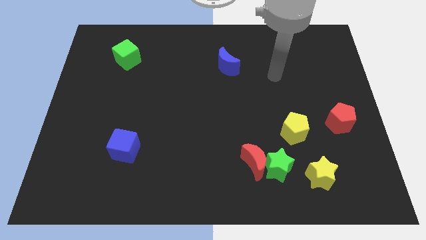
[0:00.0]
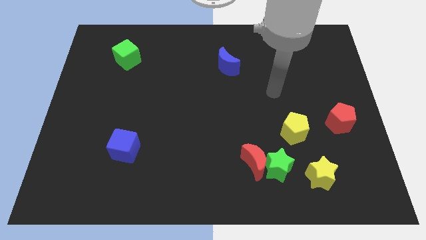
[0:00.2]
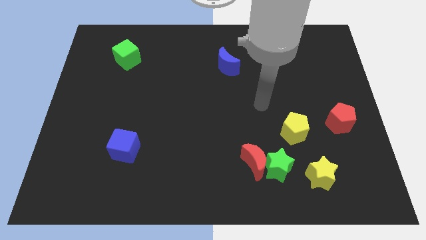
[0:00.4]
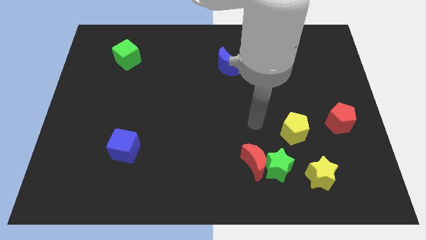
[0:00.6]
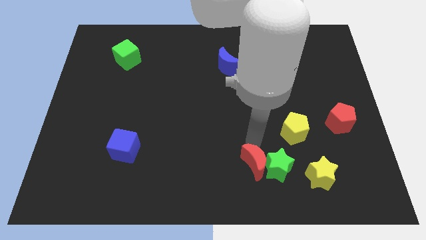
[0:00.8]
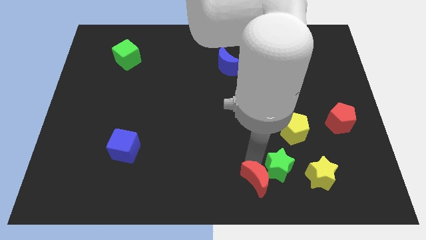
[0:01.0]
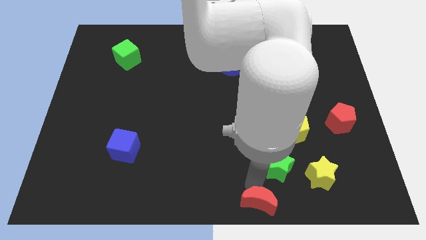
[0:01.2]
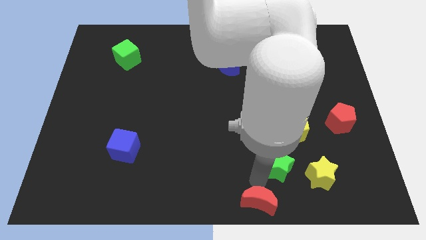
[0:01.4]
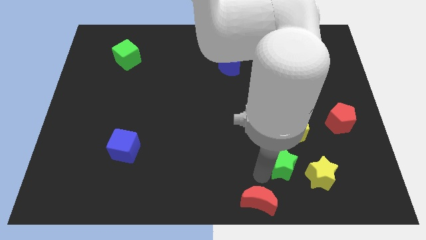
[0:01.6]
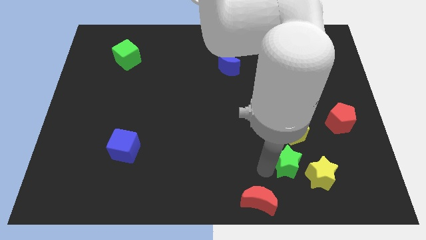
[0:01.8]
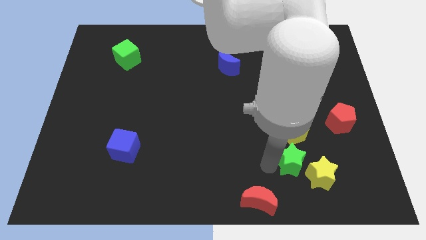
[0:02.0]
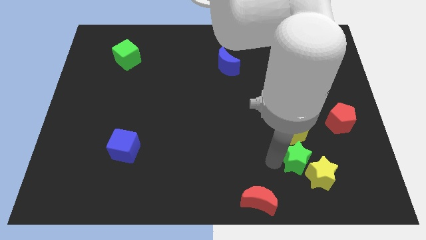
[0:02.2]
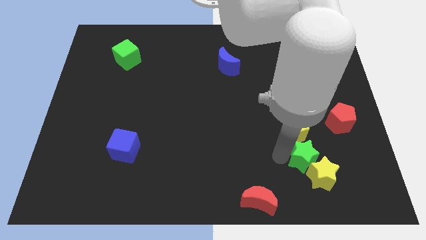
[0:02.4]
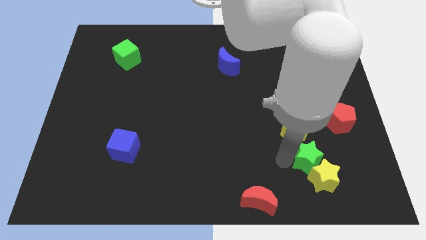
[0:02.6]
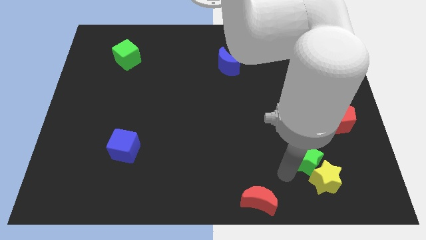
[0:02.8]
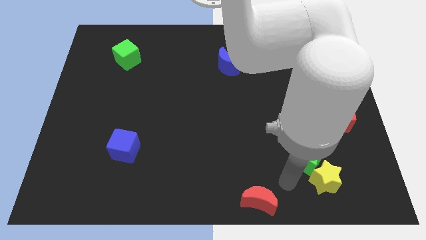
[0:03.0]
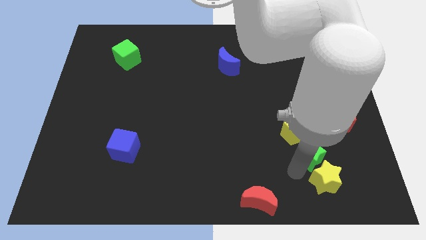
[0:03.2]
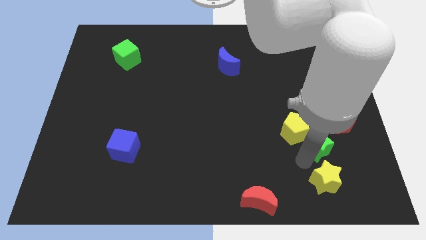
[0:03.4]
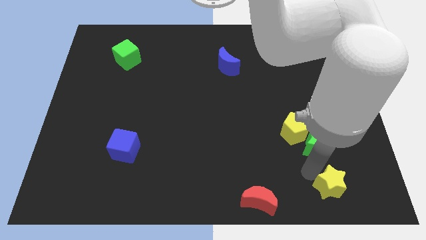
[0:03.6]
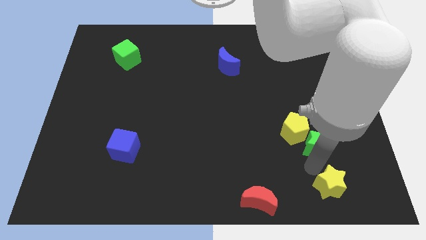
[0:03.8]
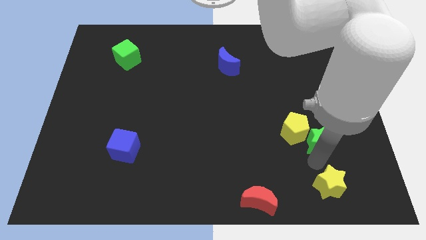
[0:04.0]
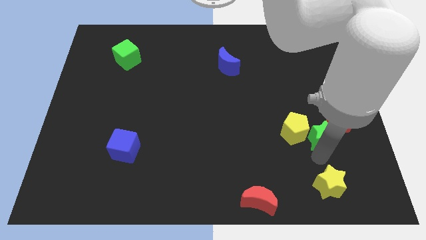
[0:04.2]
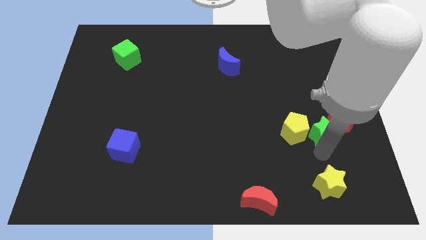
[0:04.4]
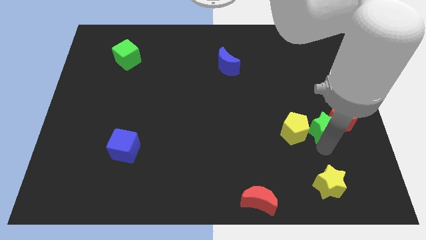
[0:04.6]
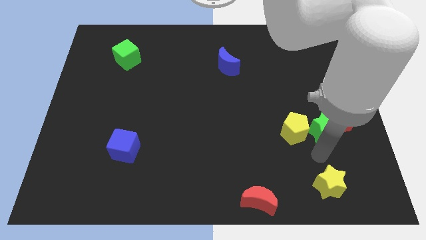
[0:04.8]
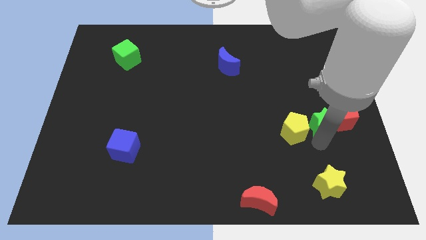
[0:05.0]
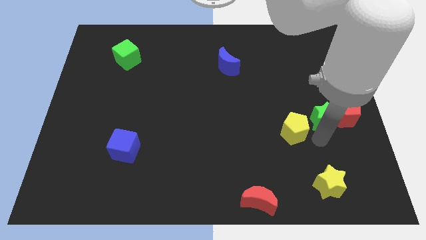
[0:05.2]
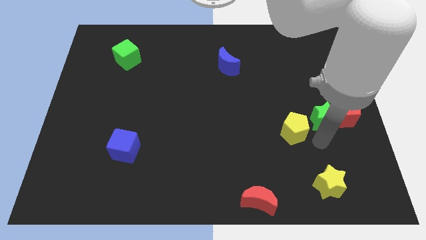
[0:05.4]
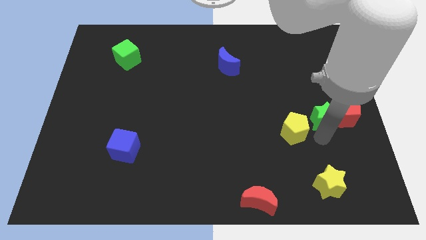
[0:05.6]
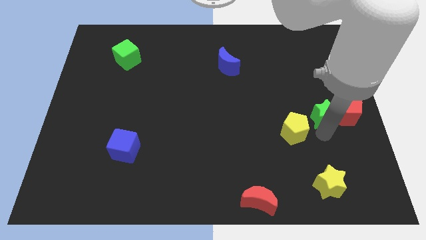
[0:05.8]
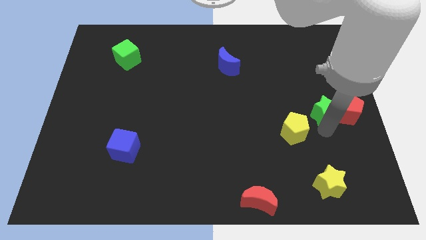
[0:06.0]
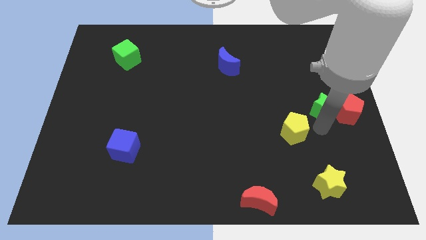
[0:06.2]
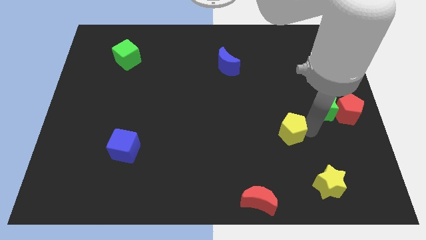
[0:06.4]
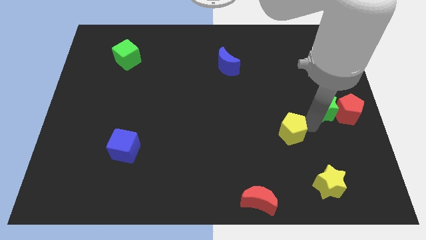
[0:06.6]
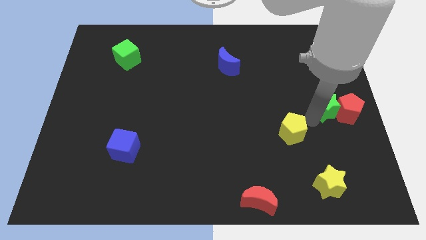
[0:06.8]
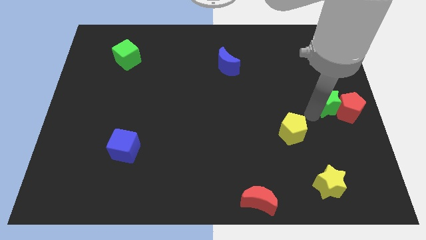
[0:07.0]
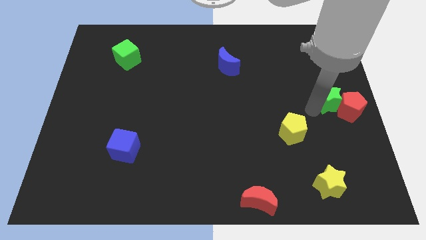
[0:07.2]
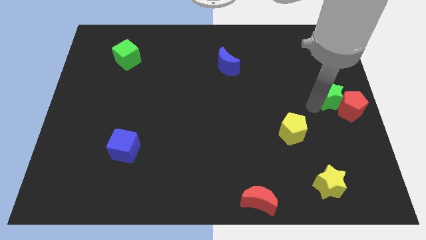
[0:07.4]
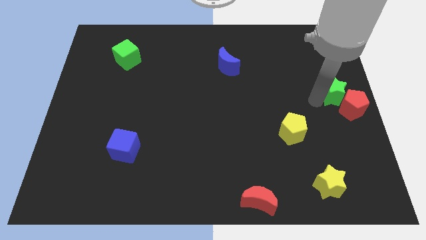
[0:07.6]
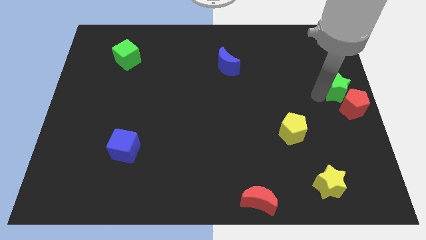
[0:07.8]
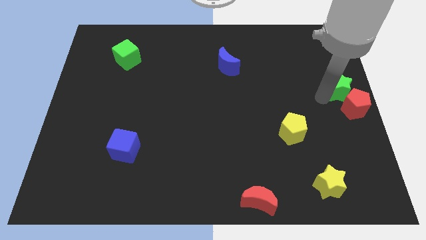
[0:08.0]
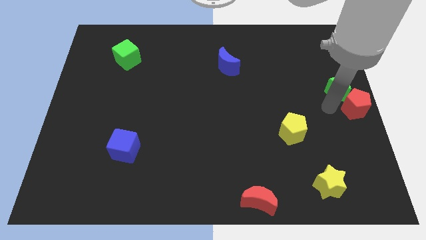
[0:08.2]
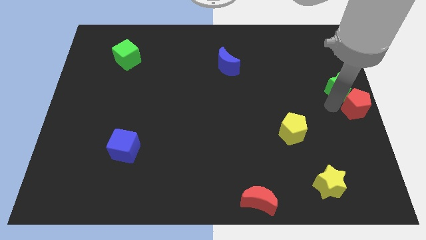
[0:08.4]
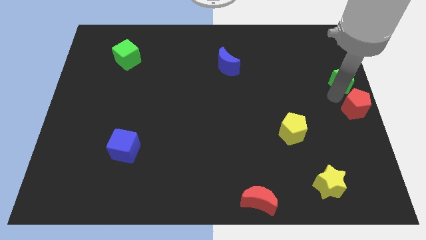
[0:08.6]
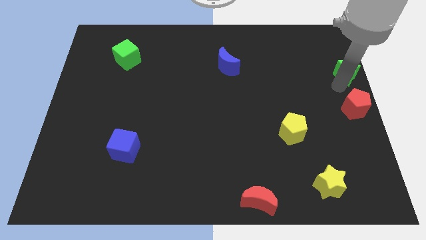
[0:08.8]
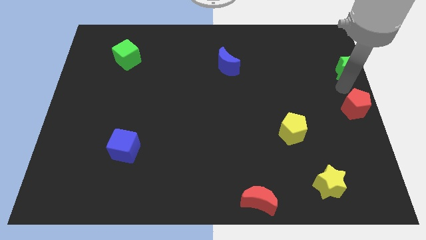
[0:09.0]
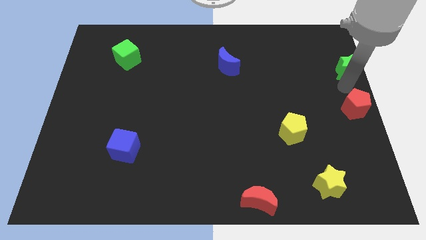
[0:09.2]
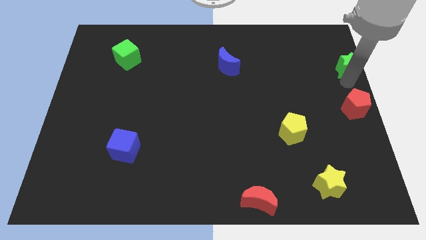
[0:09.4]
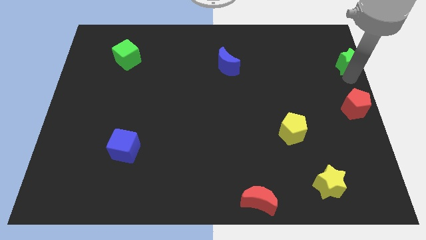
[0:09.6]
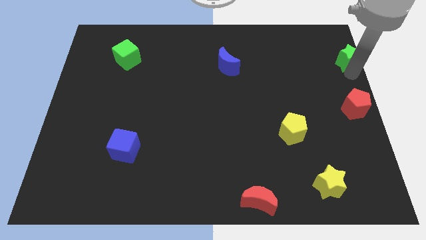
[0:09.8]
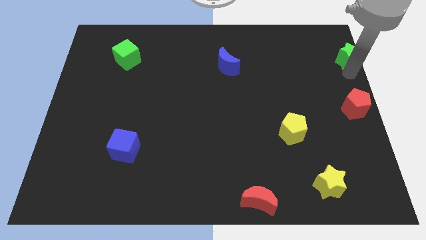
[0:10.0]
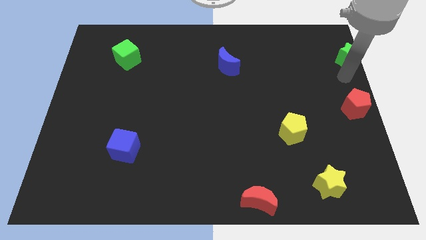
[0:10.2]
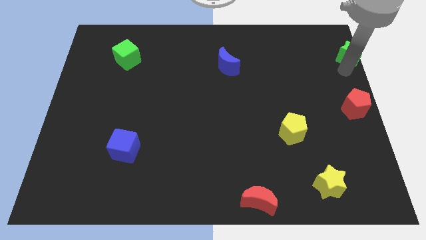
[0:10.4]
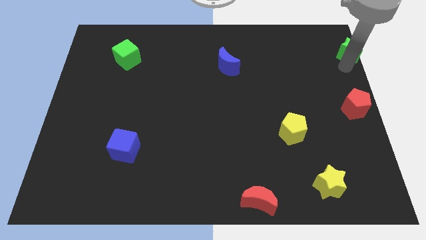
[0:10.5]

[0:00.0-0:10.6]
slide the green star to the top right corner
